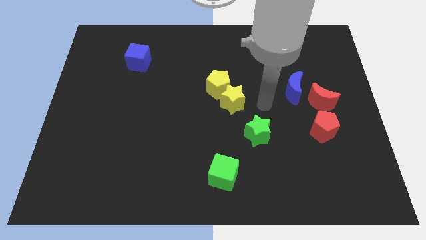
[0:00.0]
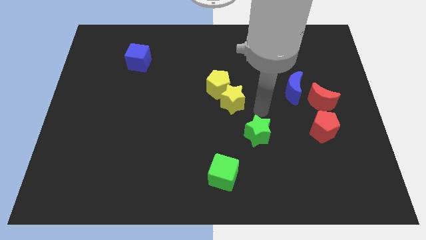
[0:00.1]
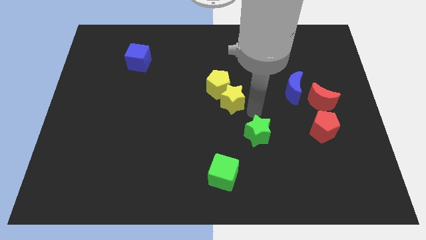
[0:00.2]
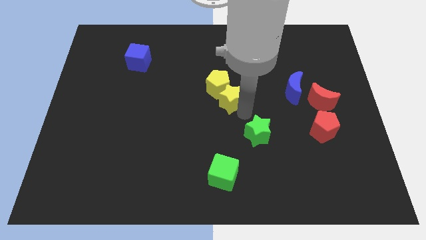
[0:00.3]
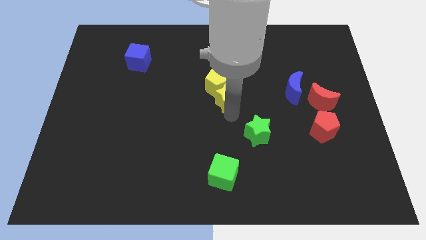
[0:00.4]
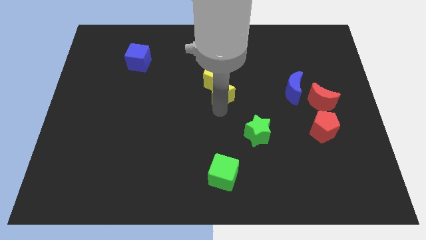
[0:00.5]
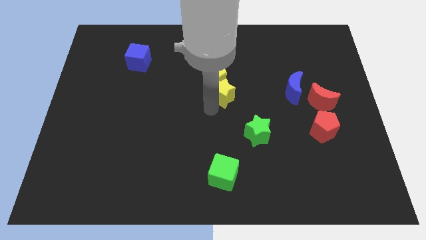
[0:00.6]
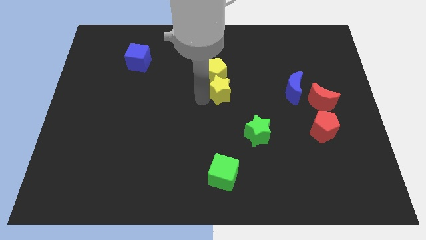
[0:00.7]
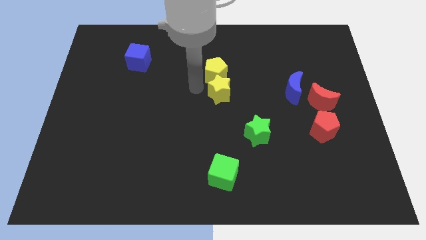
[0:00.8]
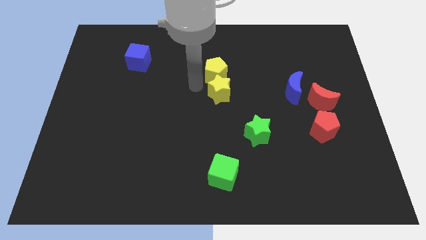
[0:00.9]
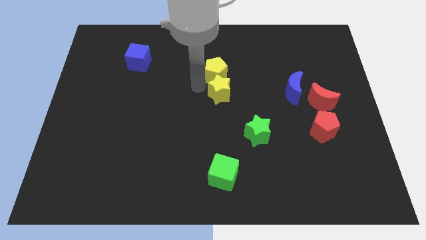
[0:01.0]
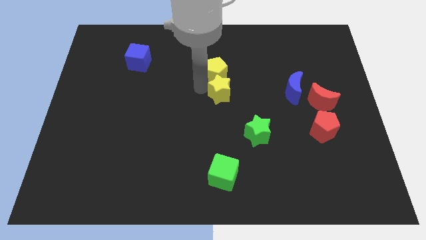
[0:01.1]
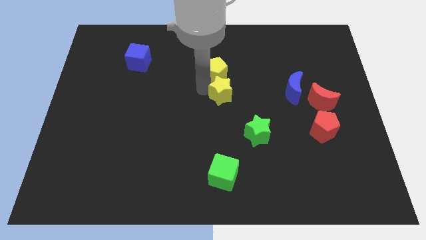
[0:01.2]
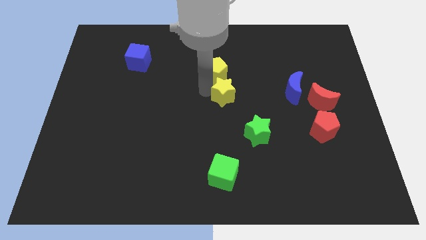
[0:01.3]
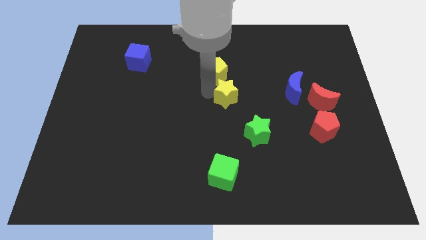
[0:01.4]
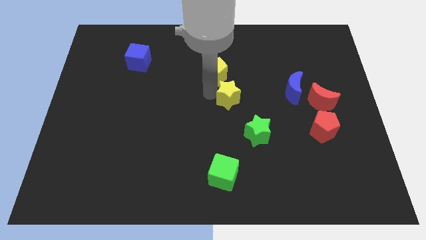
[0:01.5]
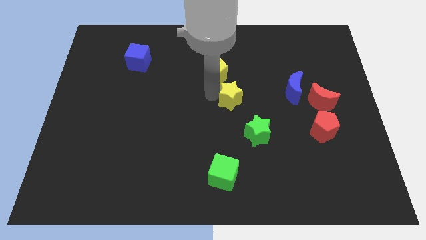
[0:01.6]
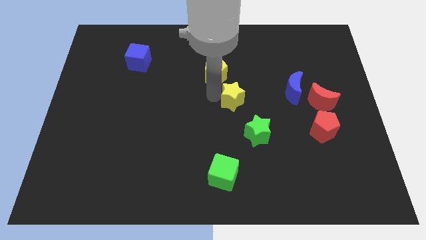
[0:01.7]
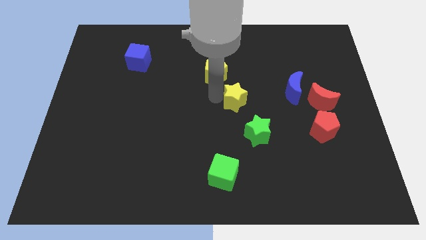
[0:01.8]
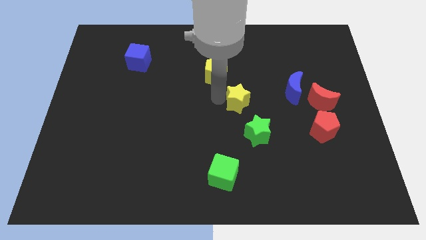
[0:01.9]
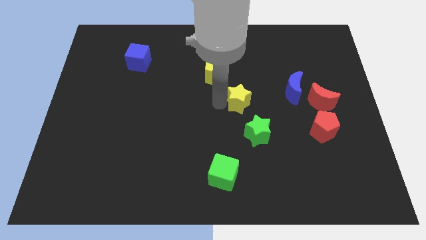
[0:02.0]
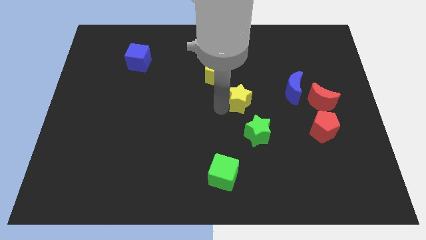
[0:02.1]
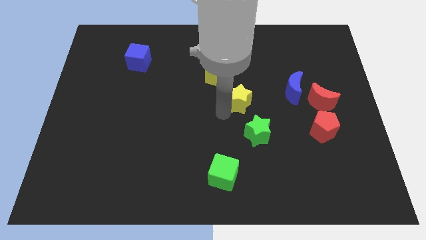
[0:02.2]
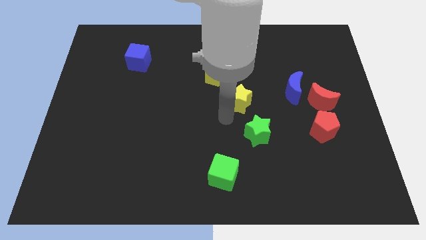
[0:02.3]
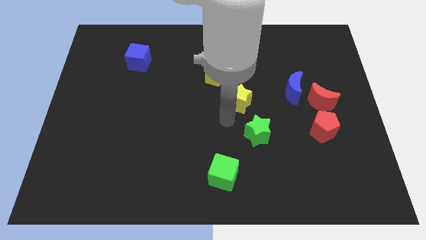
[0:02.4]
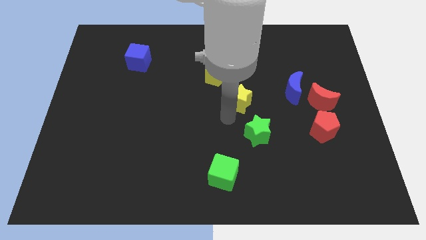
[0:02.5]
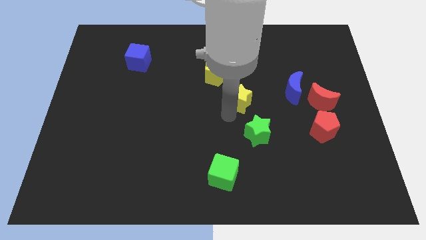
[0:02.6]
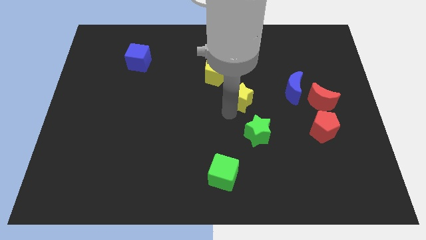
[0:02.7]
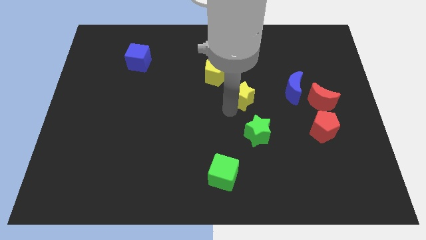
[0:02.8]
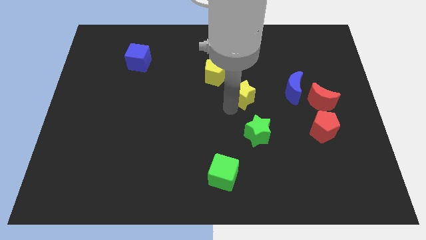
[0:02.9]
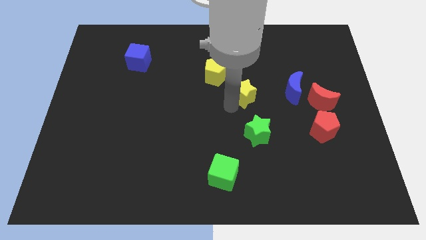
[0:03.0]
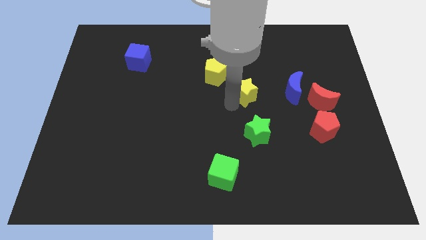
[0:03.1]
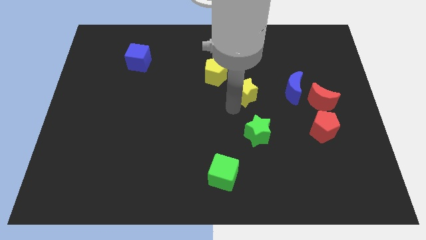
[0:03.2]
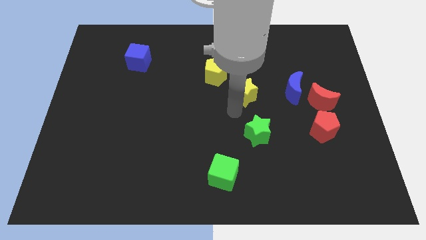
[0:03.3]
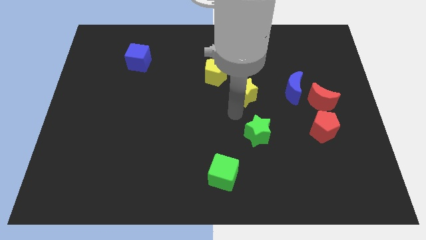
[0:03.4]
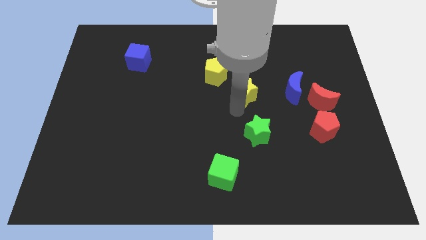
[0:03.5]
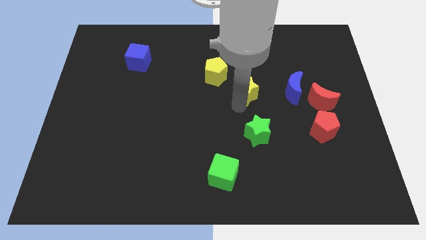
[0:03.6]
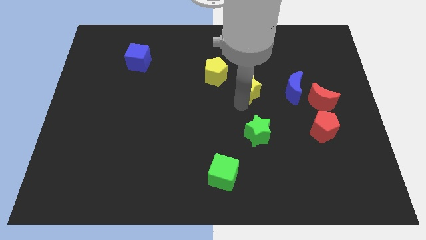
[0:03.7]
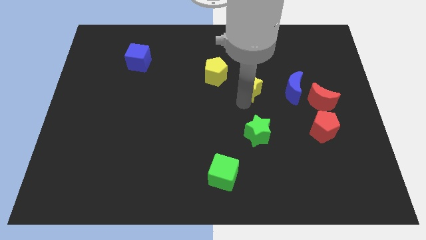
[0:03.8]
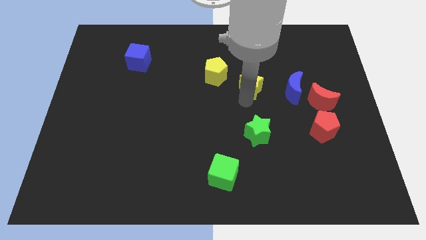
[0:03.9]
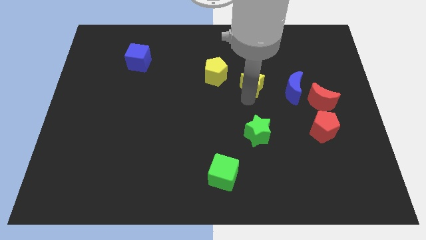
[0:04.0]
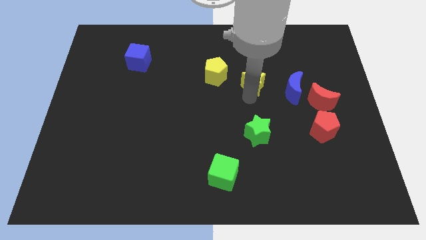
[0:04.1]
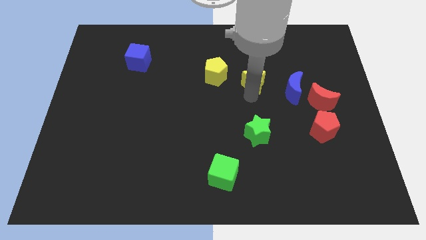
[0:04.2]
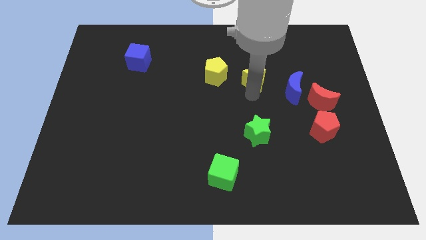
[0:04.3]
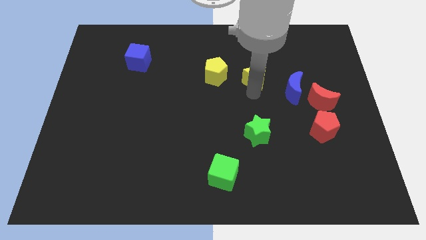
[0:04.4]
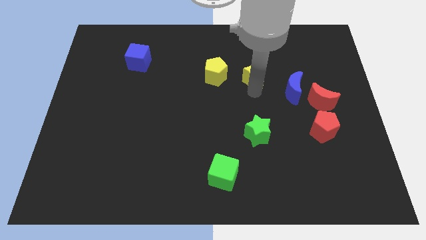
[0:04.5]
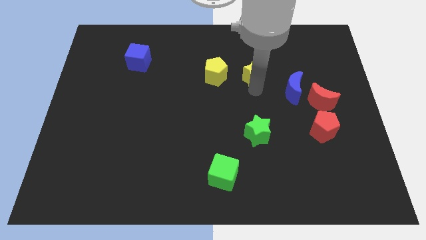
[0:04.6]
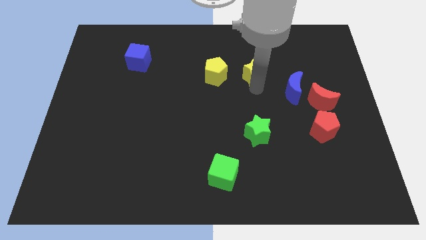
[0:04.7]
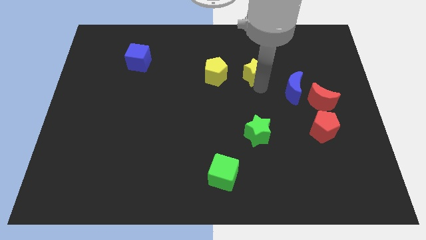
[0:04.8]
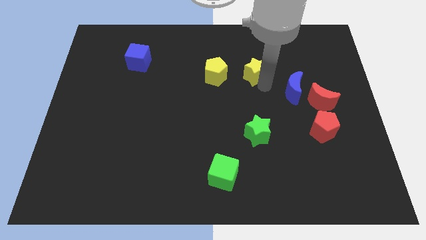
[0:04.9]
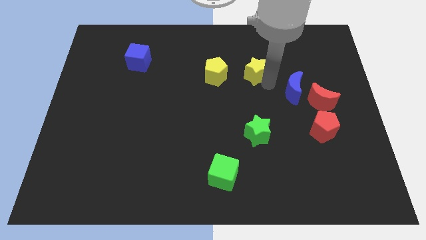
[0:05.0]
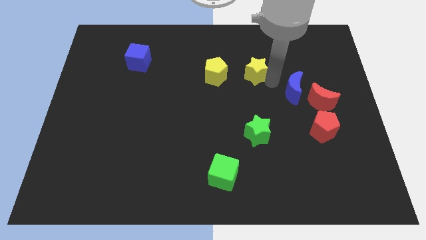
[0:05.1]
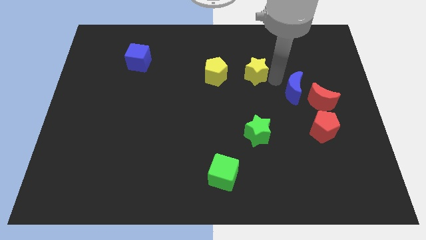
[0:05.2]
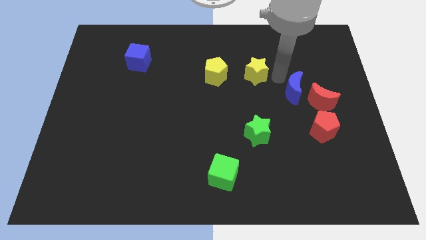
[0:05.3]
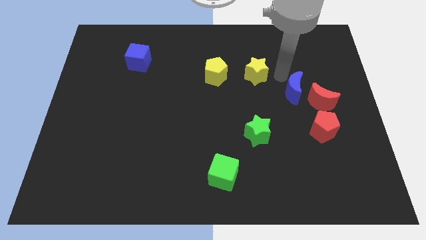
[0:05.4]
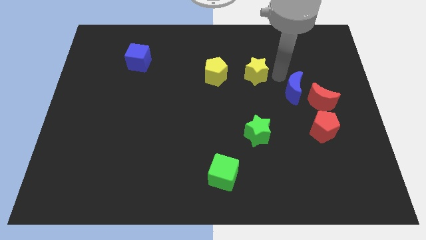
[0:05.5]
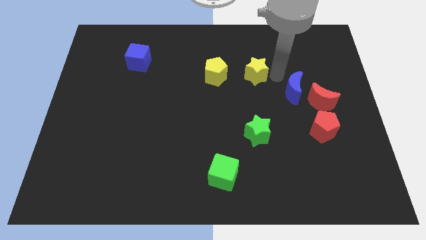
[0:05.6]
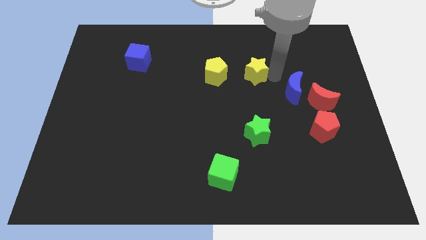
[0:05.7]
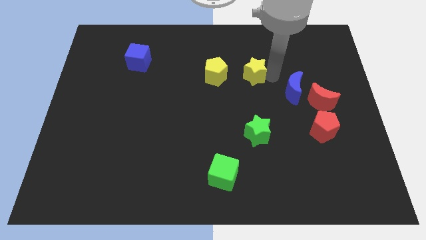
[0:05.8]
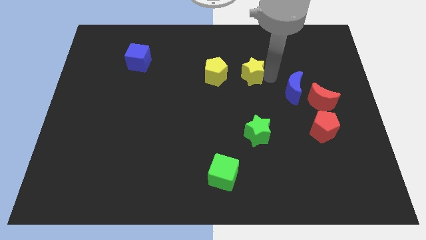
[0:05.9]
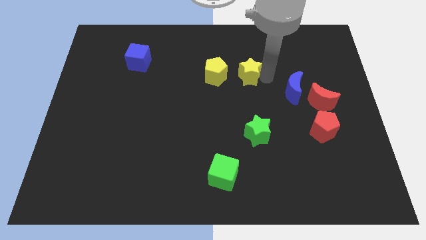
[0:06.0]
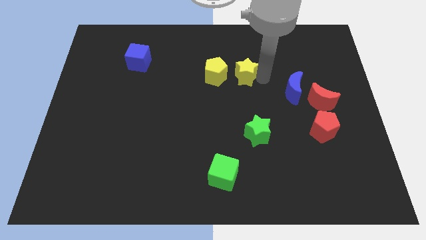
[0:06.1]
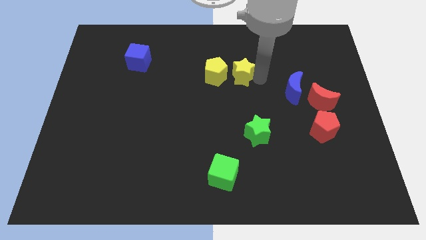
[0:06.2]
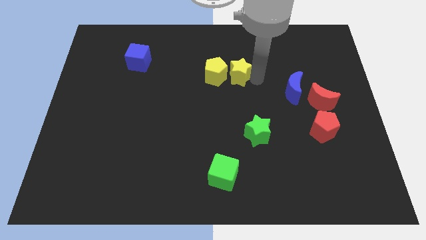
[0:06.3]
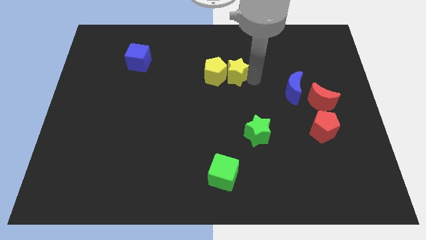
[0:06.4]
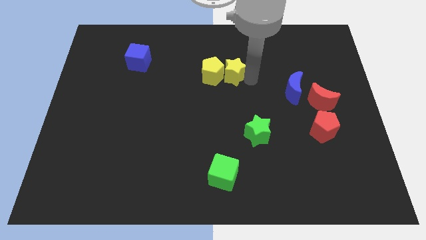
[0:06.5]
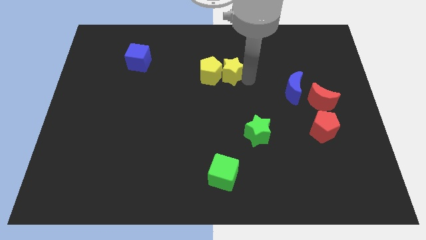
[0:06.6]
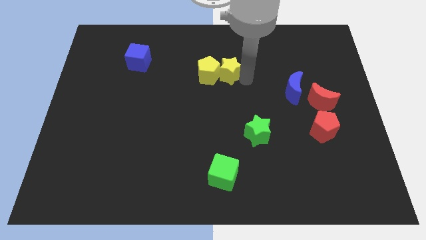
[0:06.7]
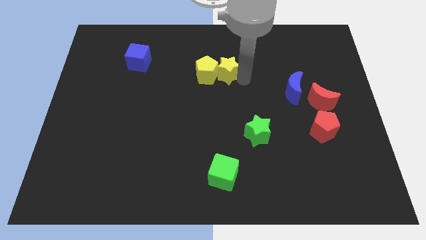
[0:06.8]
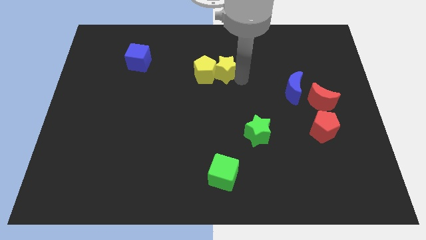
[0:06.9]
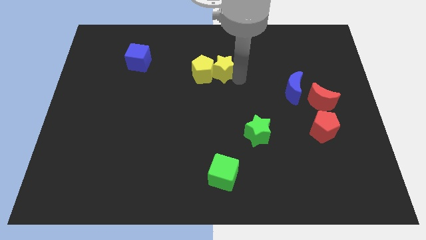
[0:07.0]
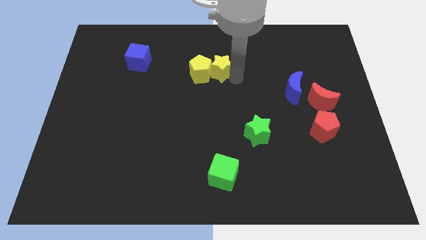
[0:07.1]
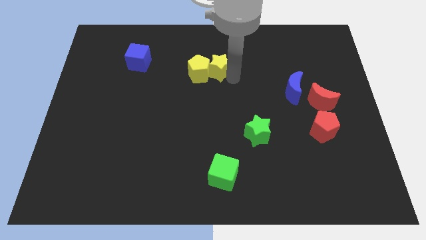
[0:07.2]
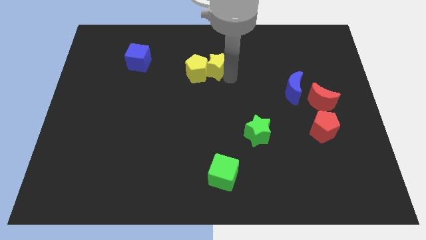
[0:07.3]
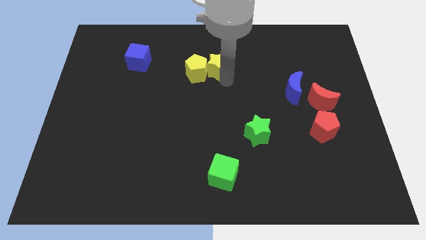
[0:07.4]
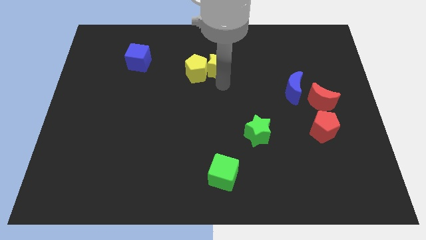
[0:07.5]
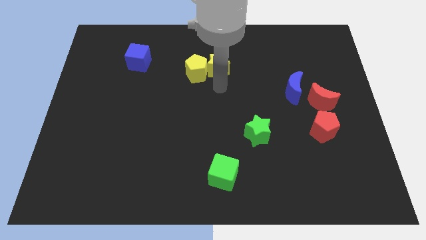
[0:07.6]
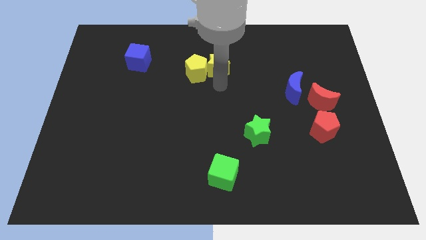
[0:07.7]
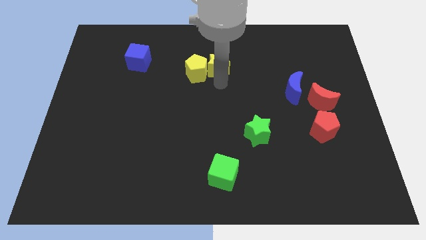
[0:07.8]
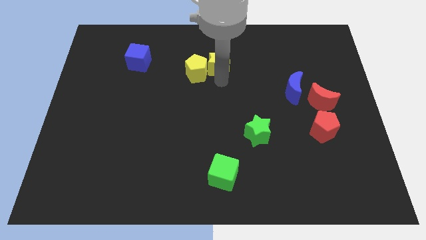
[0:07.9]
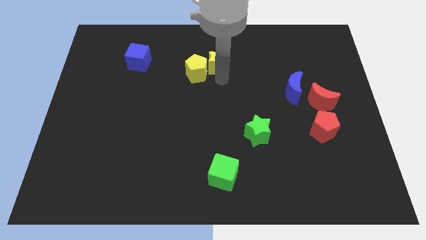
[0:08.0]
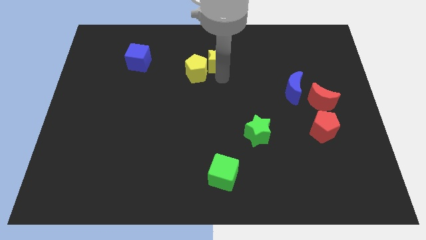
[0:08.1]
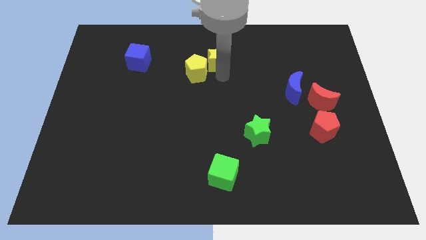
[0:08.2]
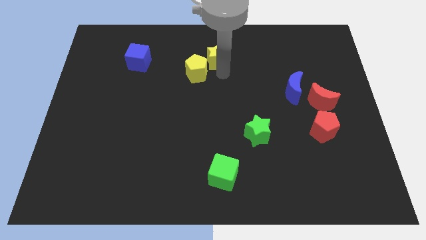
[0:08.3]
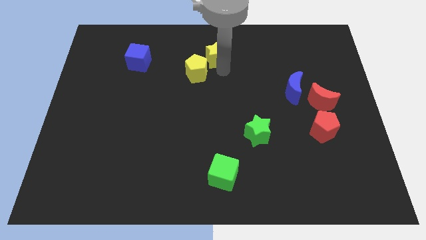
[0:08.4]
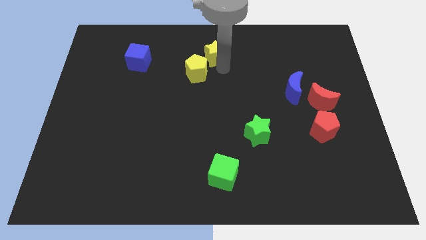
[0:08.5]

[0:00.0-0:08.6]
push the yellow star to the top
